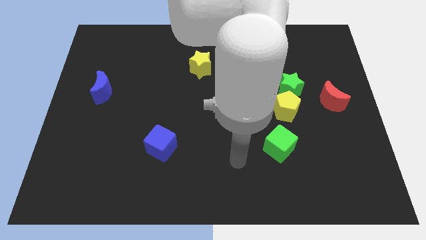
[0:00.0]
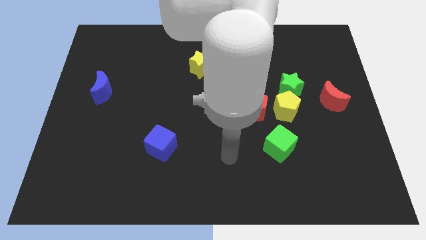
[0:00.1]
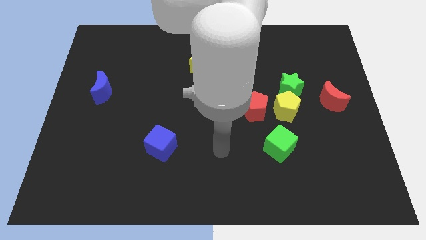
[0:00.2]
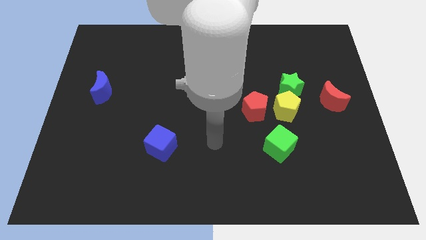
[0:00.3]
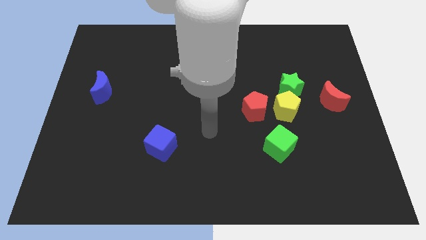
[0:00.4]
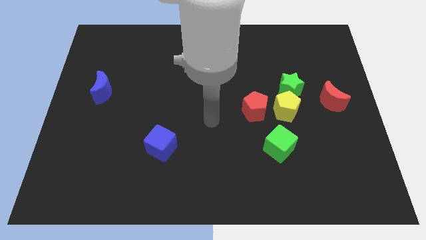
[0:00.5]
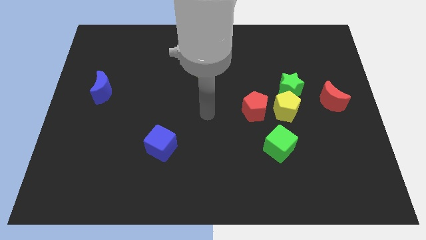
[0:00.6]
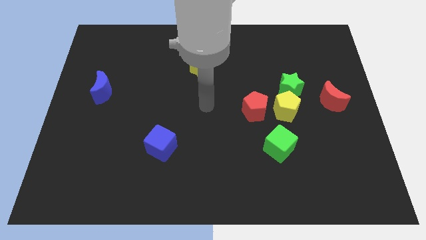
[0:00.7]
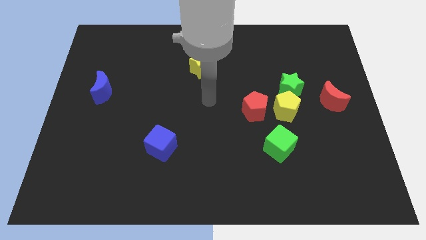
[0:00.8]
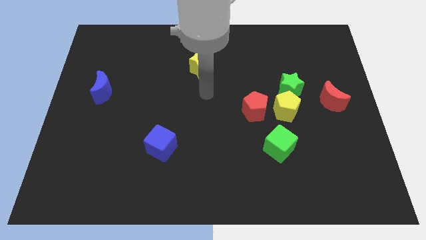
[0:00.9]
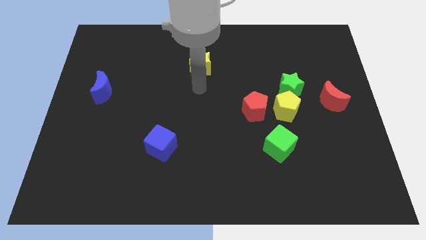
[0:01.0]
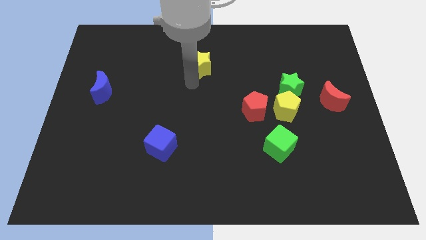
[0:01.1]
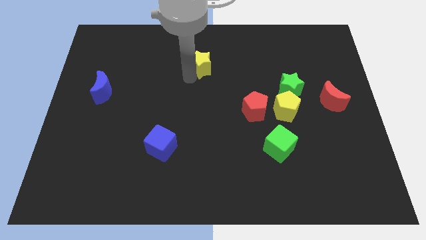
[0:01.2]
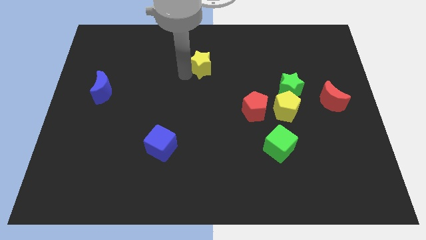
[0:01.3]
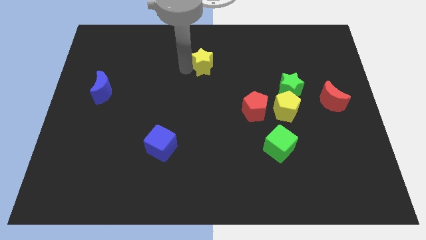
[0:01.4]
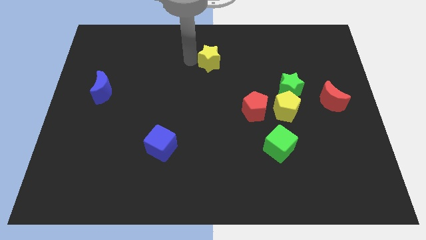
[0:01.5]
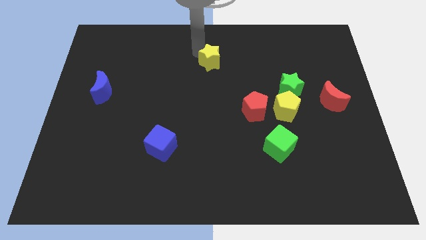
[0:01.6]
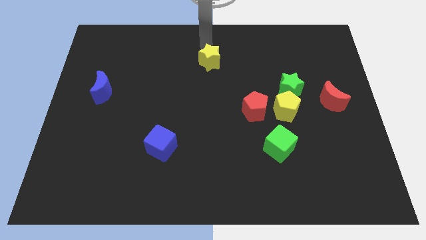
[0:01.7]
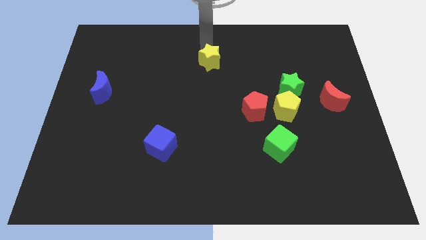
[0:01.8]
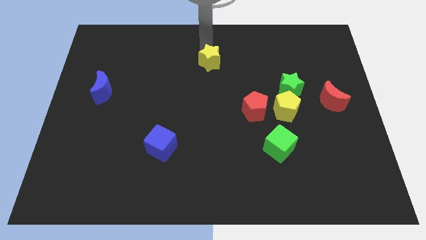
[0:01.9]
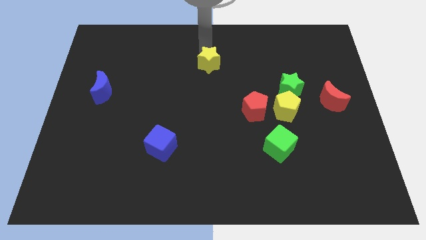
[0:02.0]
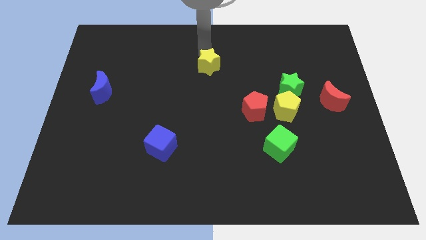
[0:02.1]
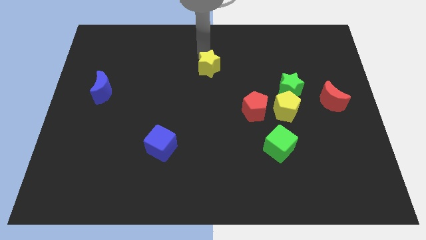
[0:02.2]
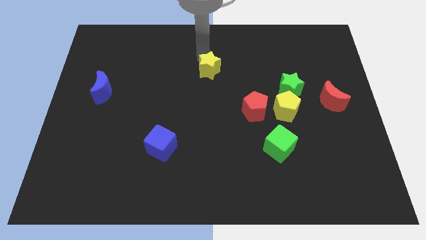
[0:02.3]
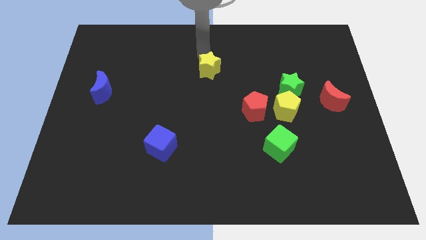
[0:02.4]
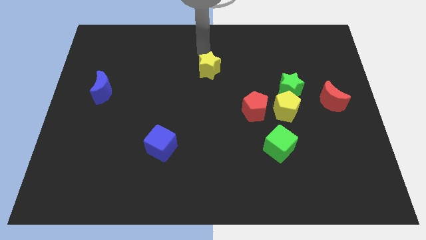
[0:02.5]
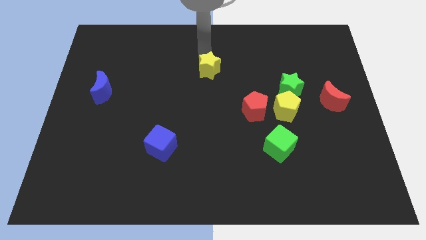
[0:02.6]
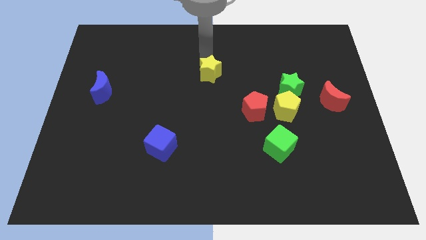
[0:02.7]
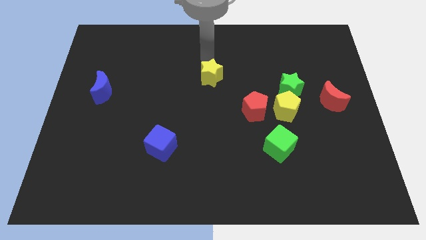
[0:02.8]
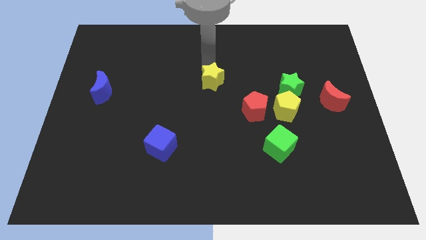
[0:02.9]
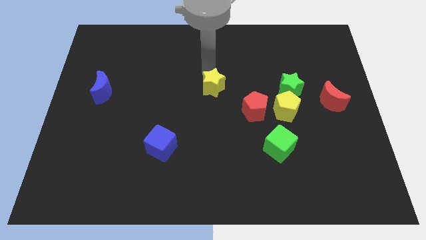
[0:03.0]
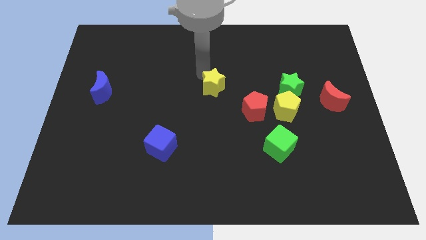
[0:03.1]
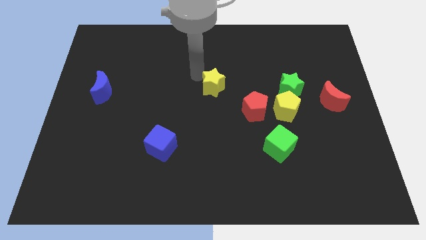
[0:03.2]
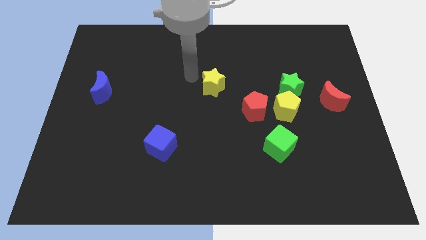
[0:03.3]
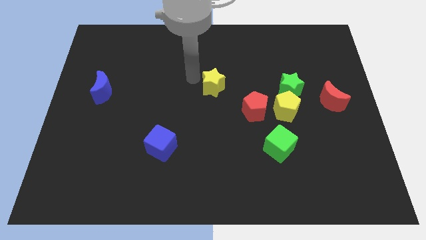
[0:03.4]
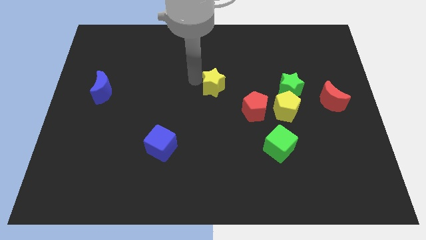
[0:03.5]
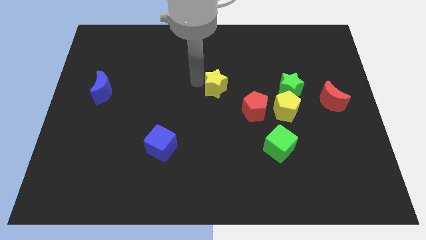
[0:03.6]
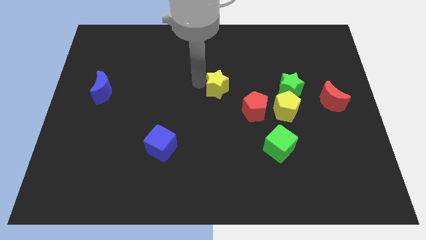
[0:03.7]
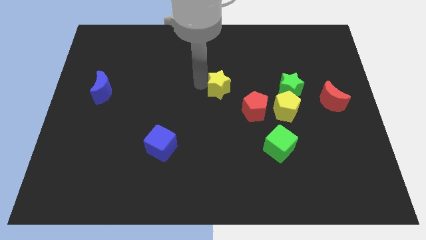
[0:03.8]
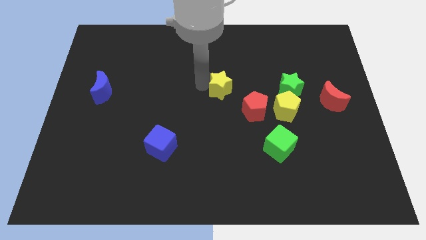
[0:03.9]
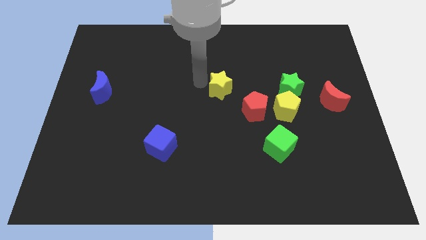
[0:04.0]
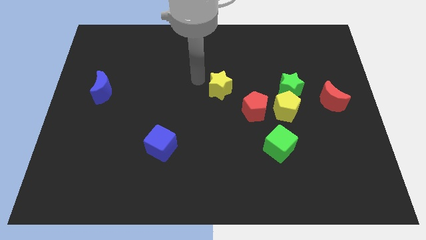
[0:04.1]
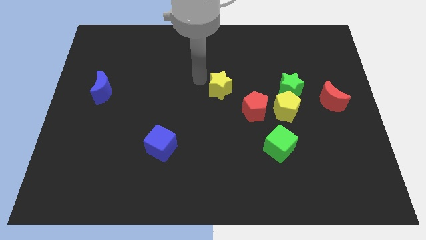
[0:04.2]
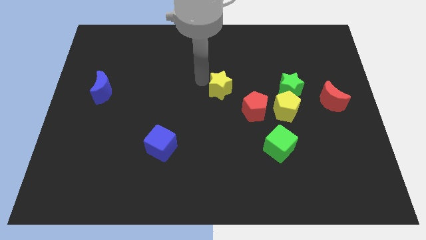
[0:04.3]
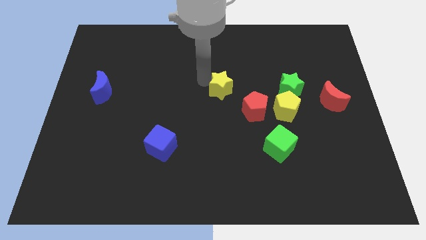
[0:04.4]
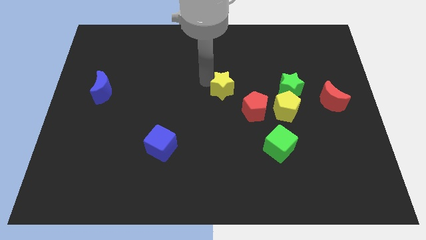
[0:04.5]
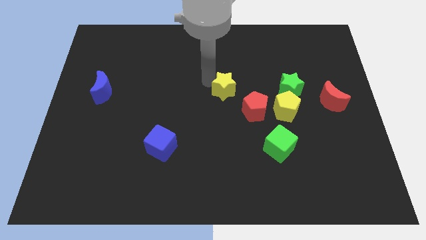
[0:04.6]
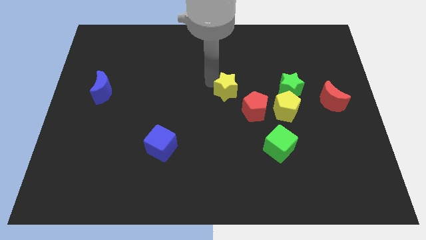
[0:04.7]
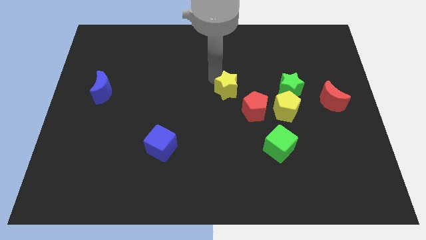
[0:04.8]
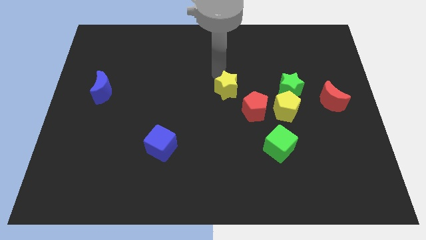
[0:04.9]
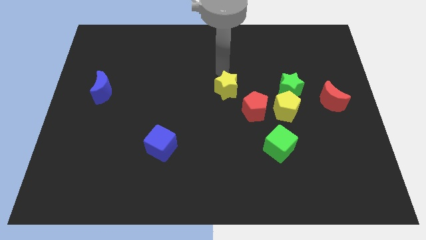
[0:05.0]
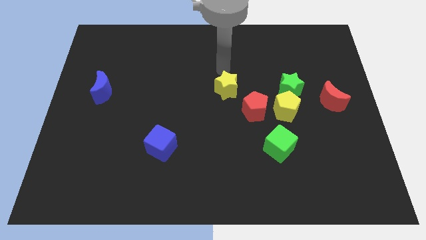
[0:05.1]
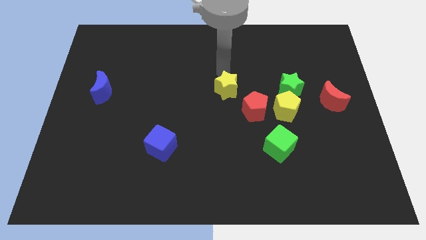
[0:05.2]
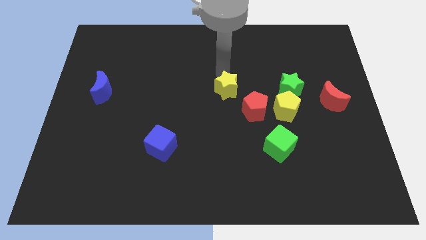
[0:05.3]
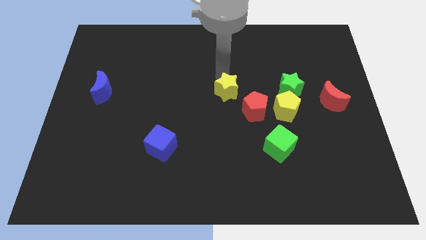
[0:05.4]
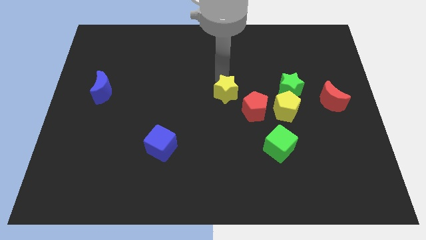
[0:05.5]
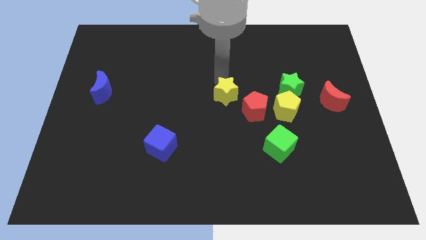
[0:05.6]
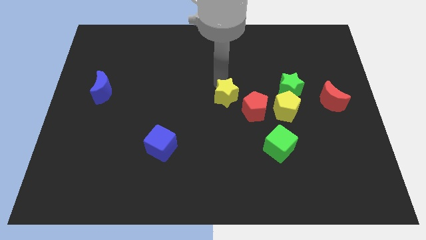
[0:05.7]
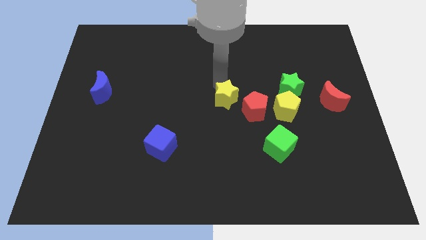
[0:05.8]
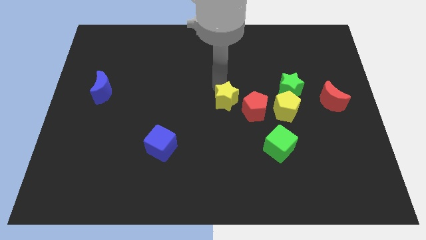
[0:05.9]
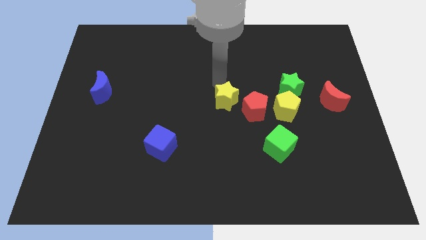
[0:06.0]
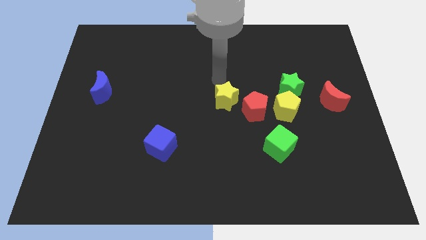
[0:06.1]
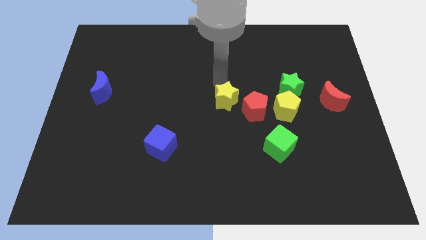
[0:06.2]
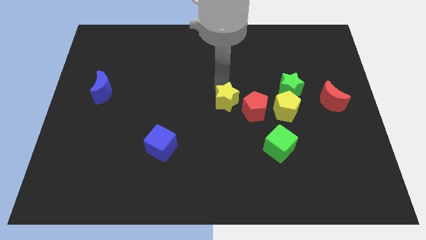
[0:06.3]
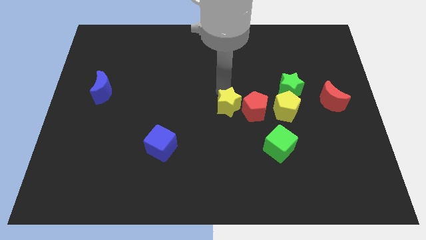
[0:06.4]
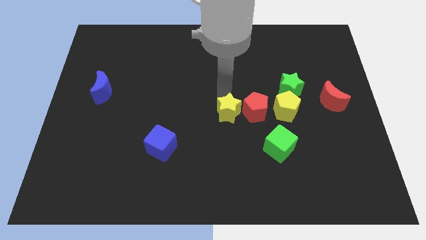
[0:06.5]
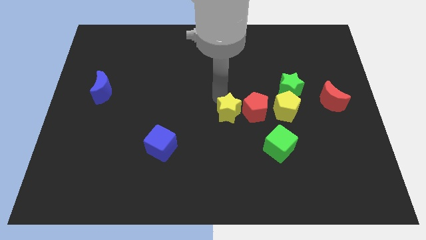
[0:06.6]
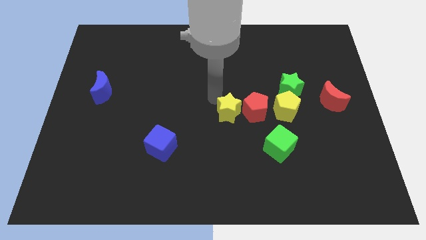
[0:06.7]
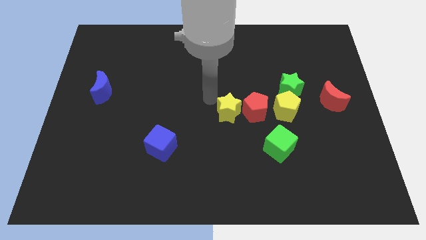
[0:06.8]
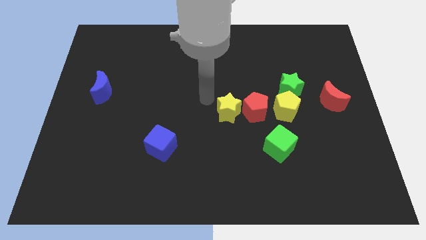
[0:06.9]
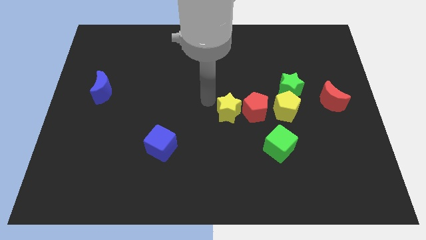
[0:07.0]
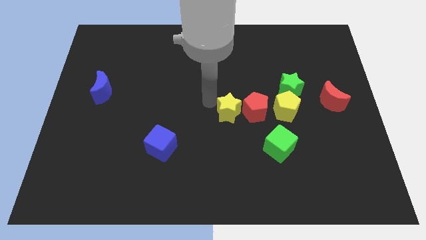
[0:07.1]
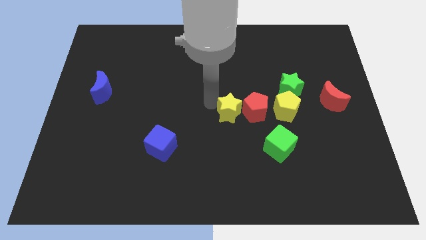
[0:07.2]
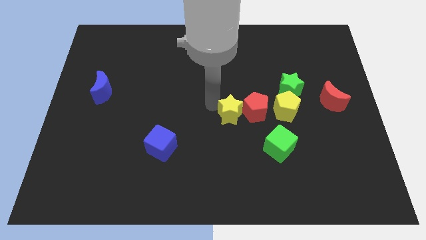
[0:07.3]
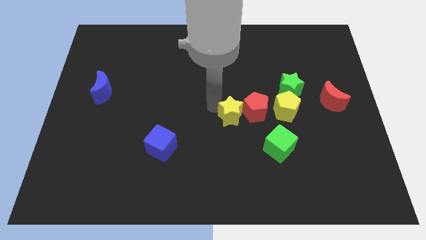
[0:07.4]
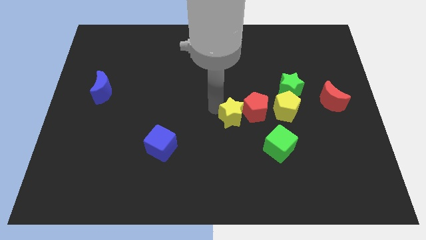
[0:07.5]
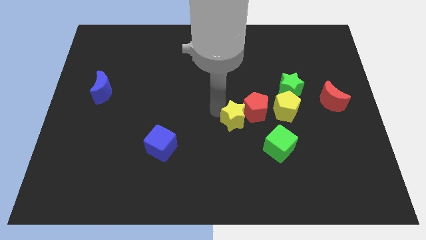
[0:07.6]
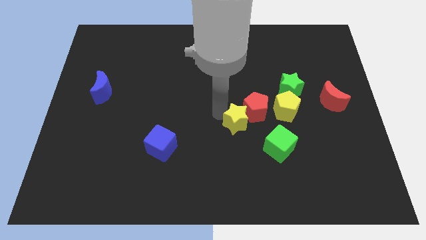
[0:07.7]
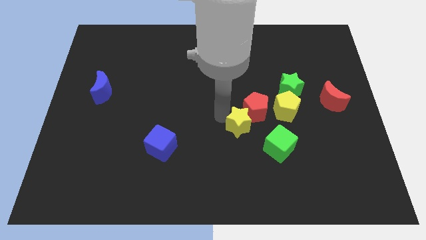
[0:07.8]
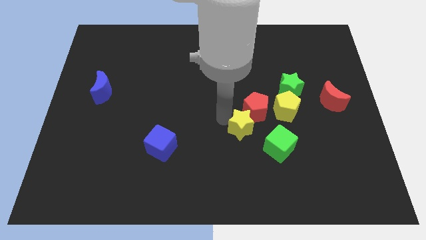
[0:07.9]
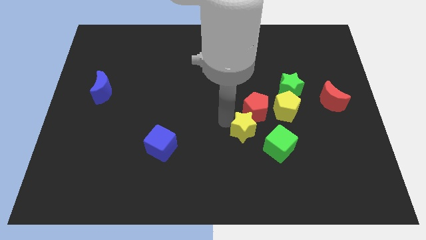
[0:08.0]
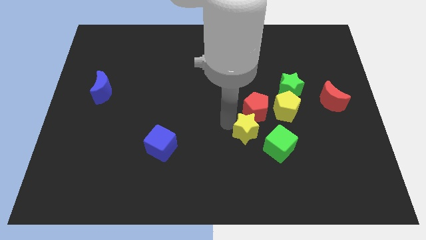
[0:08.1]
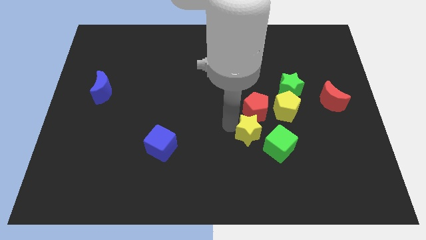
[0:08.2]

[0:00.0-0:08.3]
slide the yellow star diagonally downwards and right
